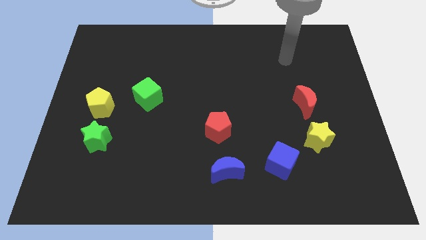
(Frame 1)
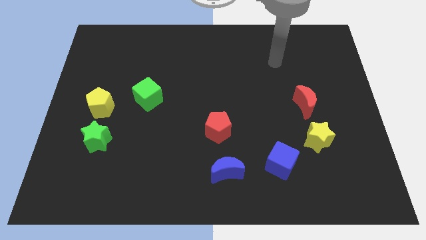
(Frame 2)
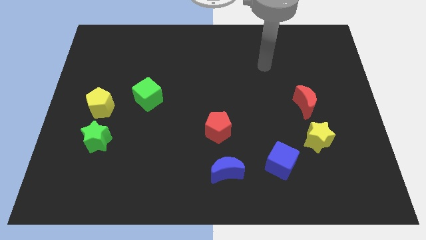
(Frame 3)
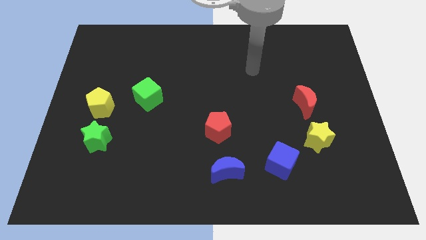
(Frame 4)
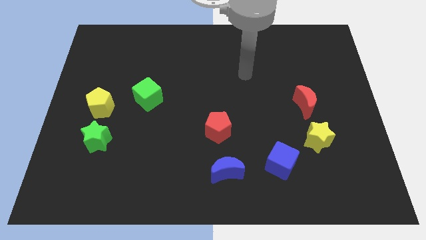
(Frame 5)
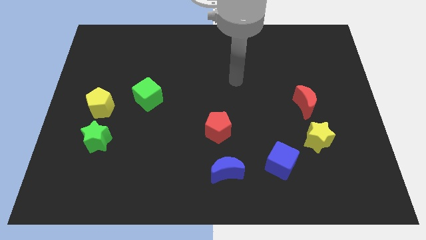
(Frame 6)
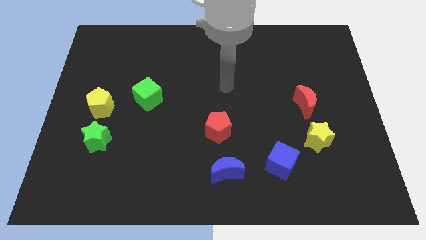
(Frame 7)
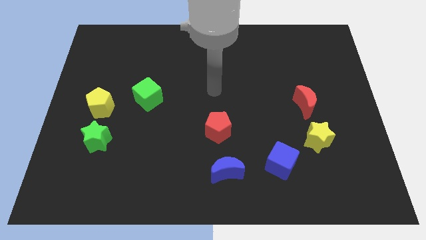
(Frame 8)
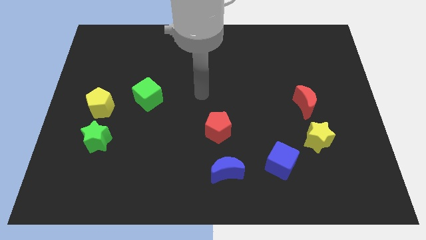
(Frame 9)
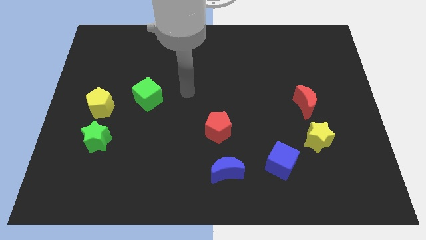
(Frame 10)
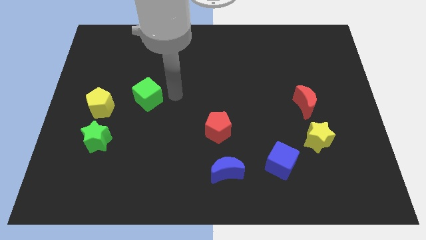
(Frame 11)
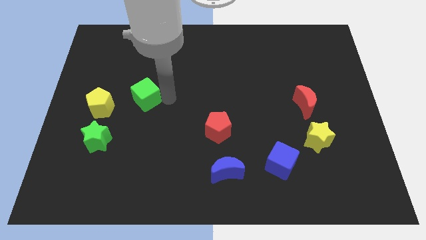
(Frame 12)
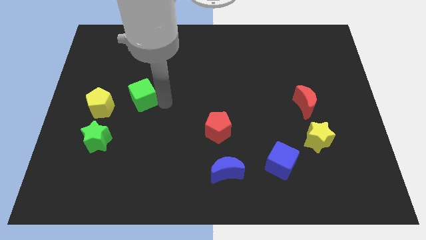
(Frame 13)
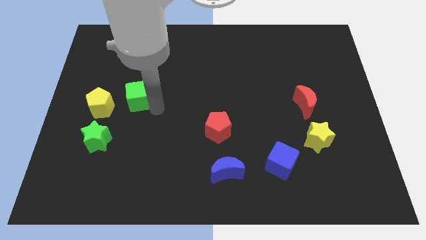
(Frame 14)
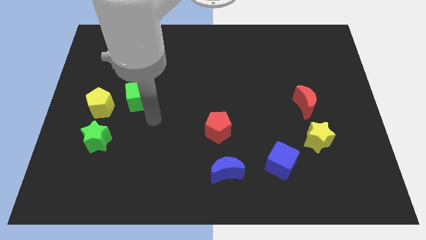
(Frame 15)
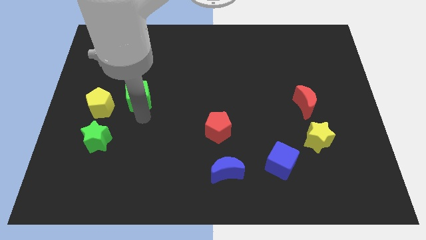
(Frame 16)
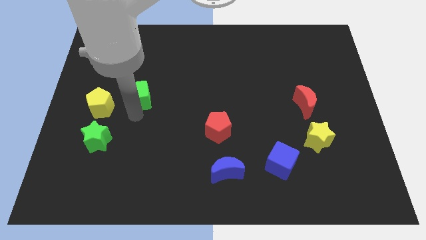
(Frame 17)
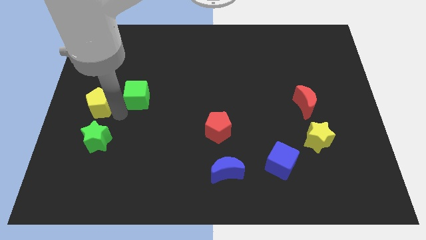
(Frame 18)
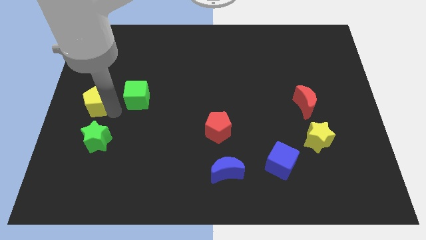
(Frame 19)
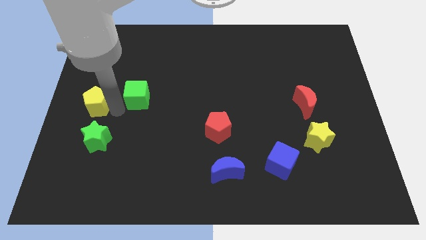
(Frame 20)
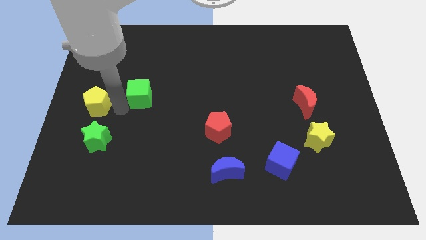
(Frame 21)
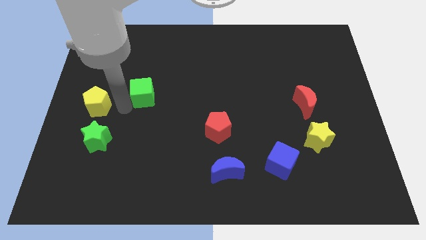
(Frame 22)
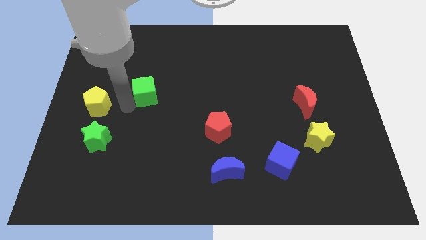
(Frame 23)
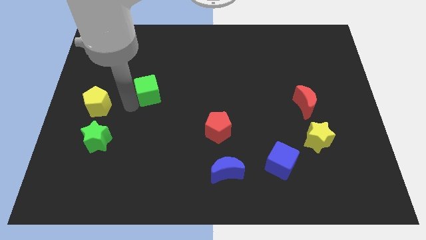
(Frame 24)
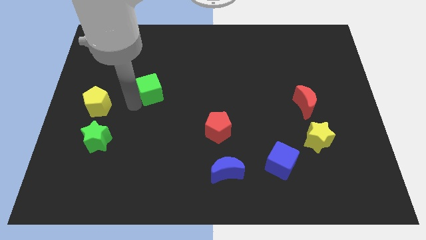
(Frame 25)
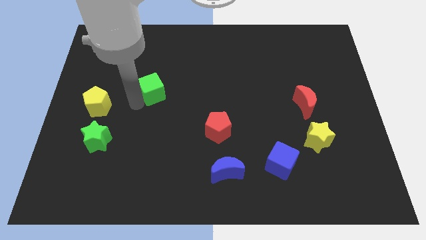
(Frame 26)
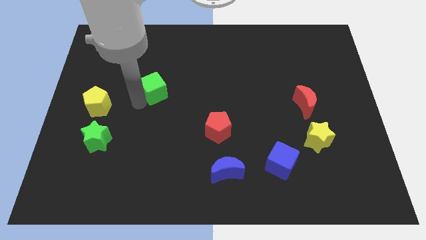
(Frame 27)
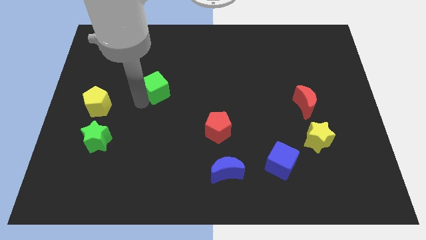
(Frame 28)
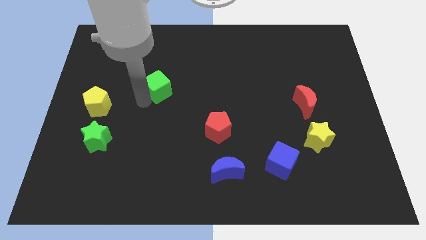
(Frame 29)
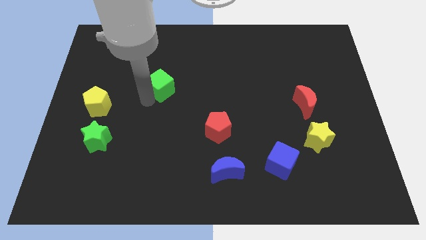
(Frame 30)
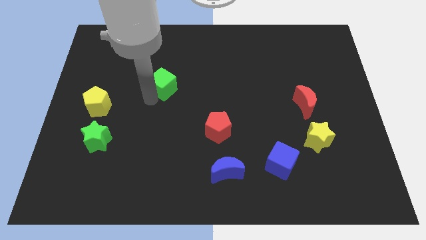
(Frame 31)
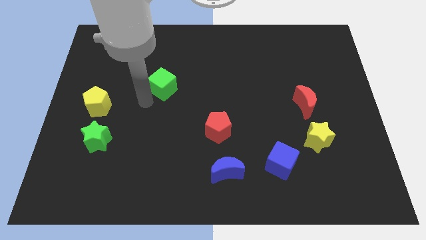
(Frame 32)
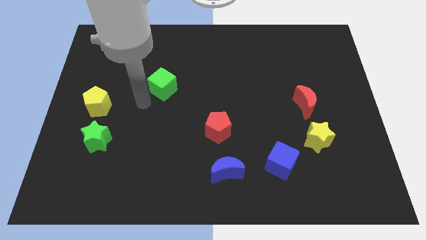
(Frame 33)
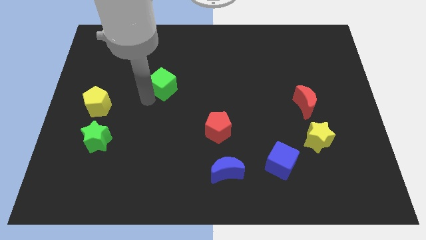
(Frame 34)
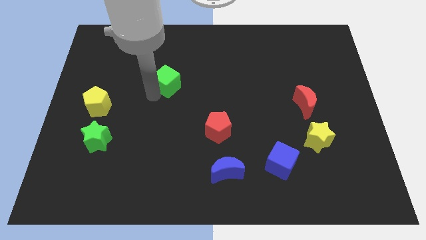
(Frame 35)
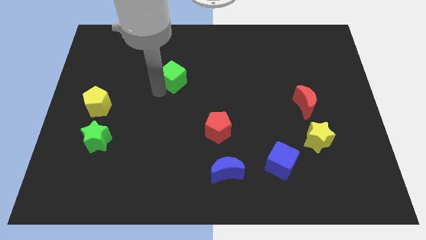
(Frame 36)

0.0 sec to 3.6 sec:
slide the green cube a bit upwards and to the right

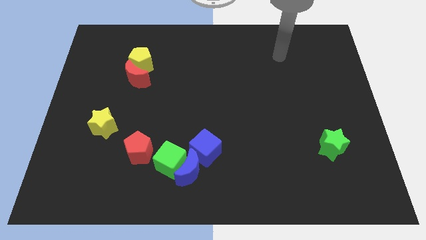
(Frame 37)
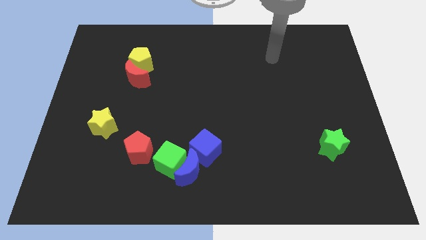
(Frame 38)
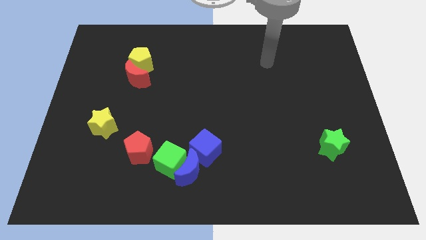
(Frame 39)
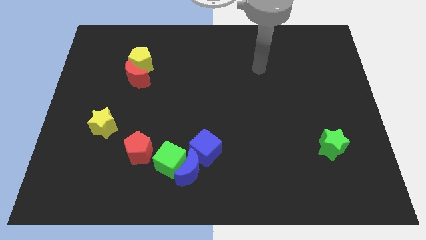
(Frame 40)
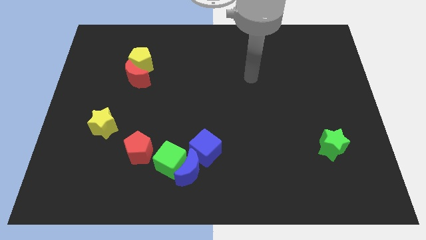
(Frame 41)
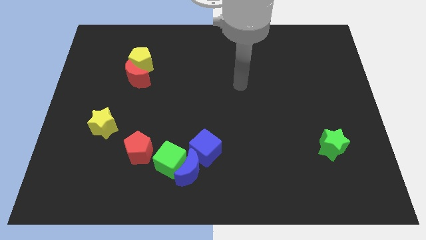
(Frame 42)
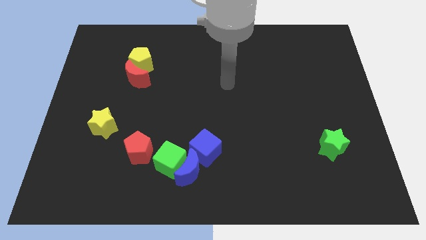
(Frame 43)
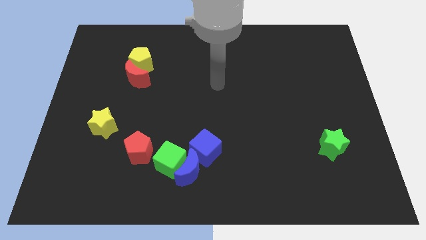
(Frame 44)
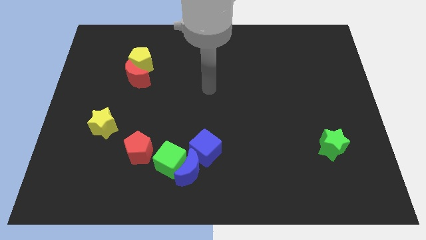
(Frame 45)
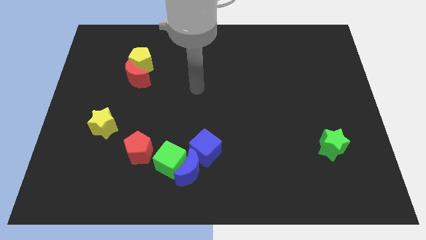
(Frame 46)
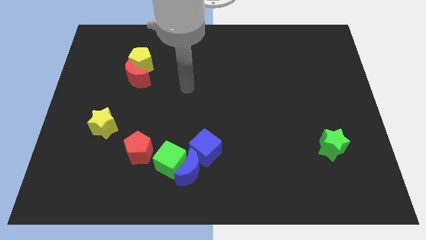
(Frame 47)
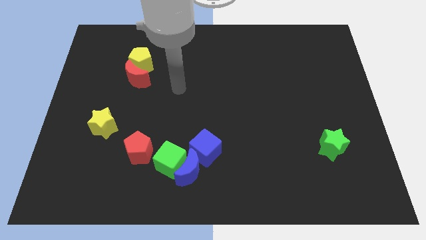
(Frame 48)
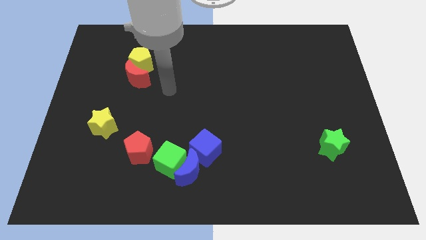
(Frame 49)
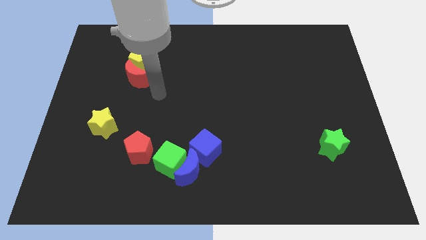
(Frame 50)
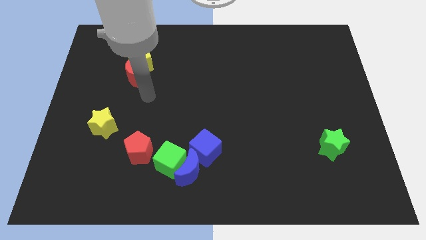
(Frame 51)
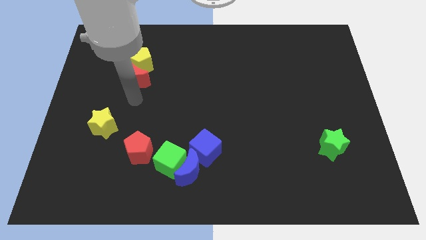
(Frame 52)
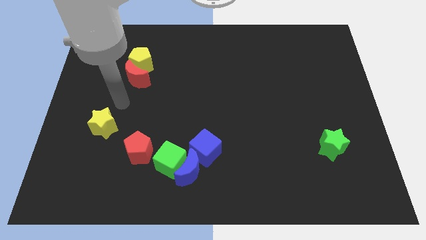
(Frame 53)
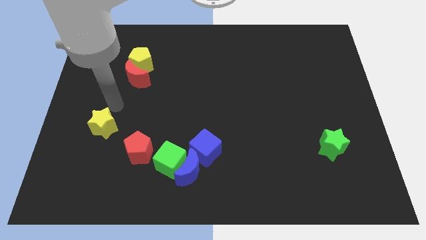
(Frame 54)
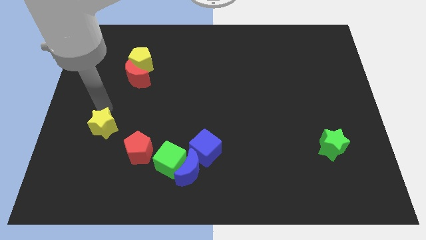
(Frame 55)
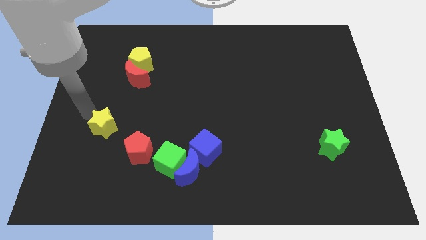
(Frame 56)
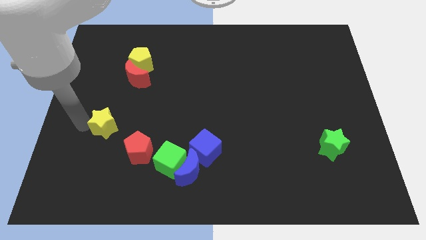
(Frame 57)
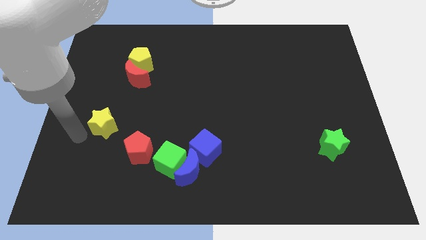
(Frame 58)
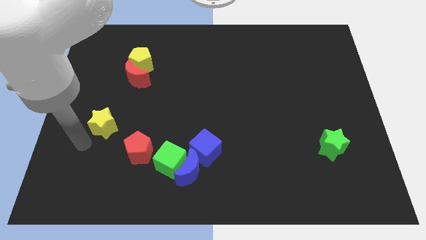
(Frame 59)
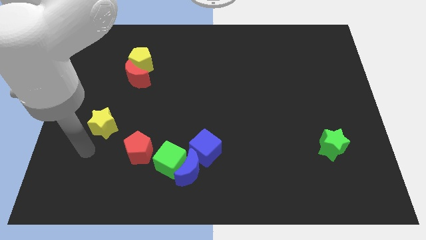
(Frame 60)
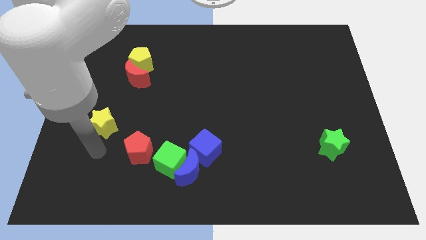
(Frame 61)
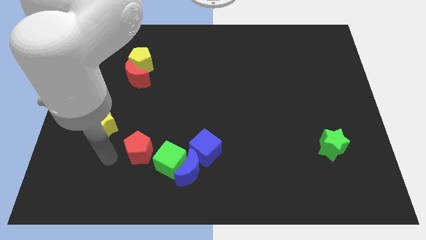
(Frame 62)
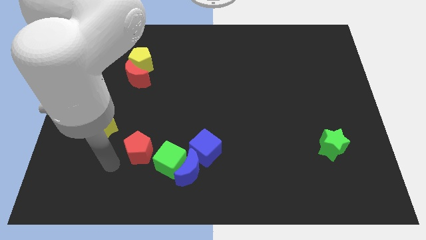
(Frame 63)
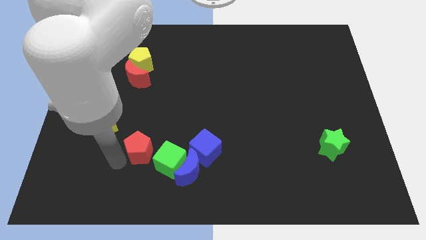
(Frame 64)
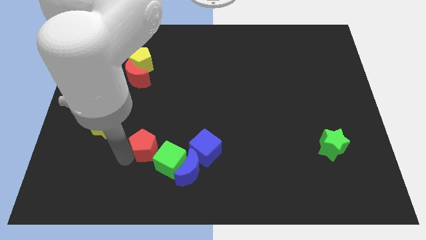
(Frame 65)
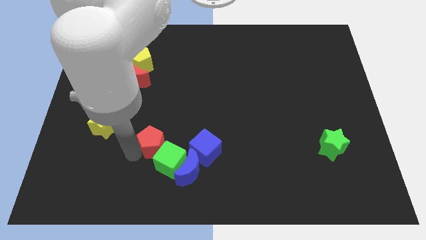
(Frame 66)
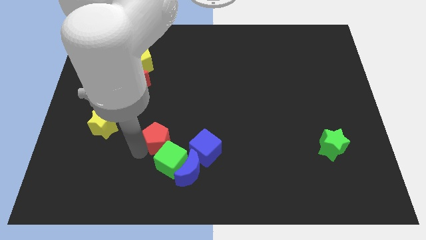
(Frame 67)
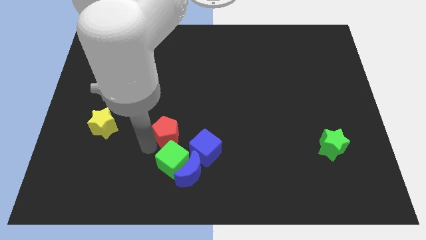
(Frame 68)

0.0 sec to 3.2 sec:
move the red pentagon a little bit upwards and to the right diagonally

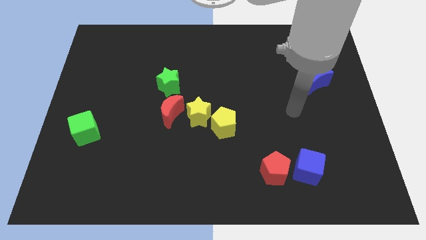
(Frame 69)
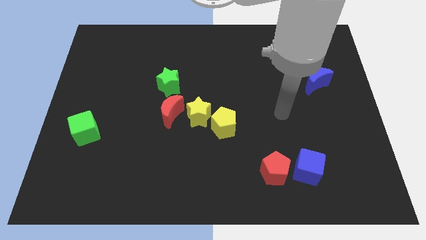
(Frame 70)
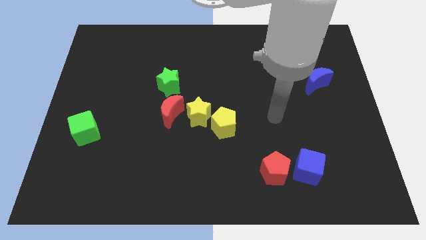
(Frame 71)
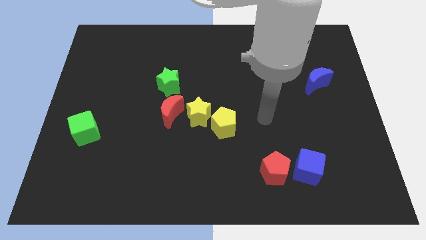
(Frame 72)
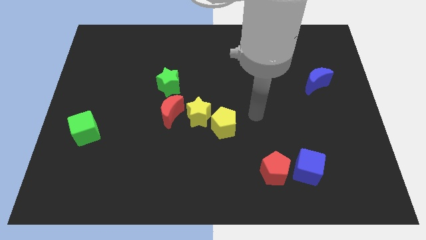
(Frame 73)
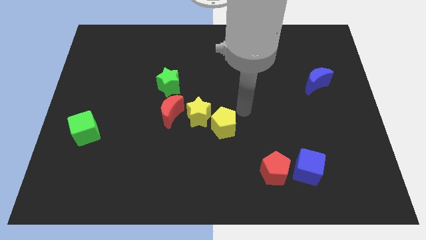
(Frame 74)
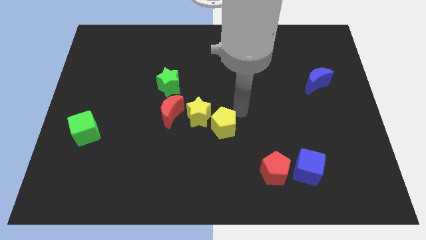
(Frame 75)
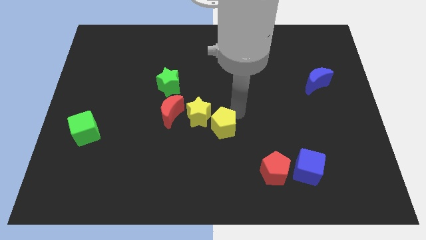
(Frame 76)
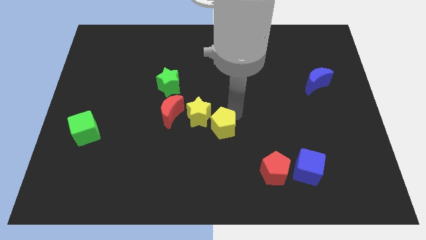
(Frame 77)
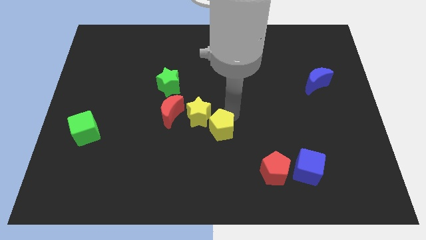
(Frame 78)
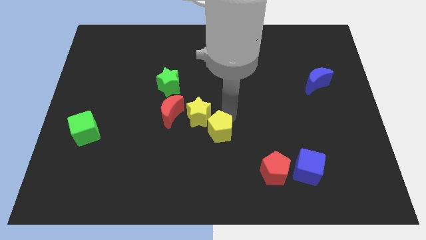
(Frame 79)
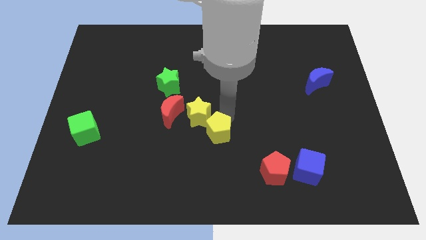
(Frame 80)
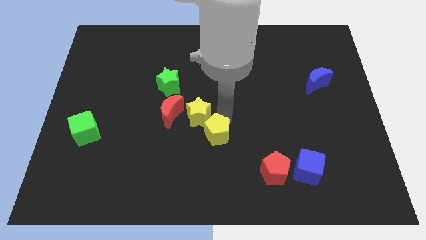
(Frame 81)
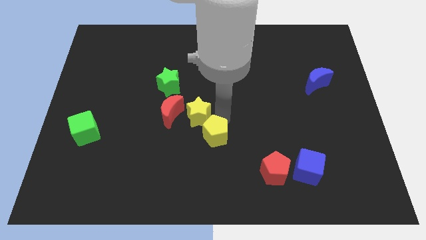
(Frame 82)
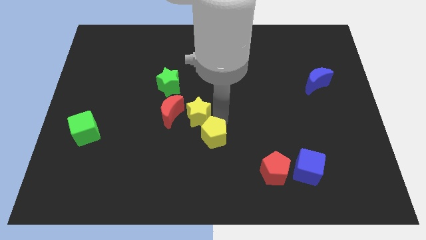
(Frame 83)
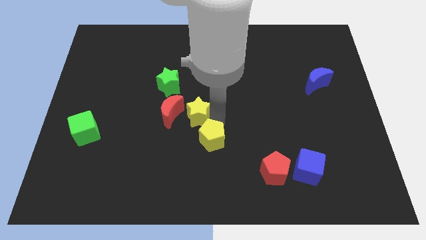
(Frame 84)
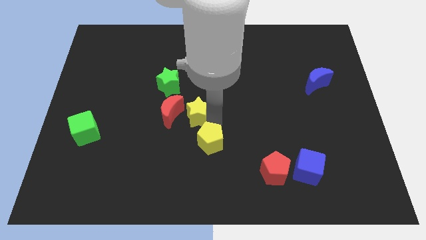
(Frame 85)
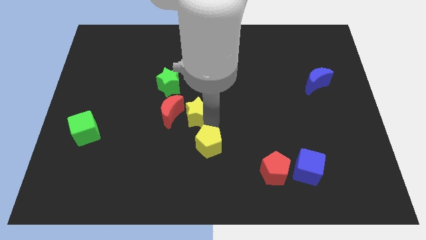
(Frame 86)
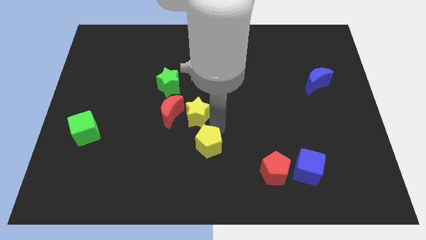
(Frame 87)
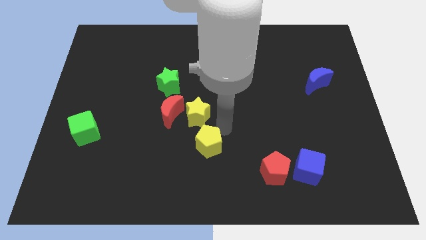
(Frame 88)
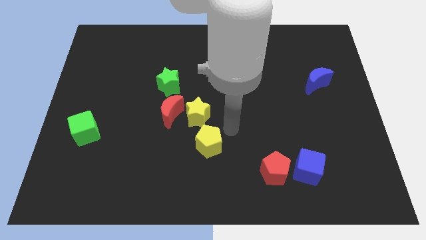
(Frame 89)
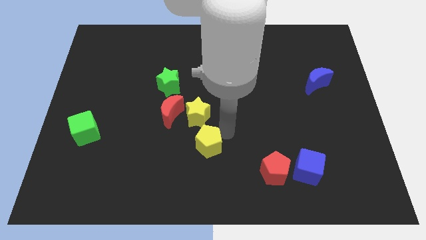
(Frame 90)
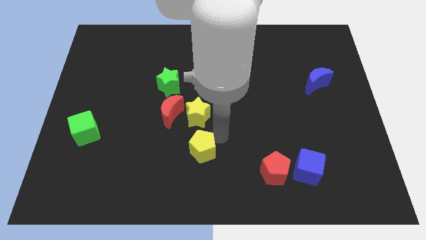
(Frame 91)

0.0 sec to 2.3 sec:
slightly slide the yellow pentagon down and then to the left
